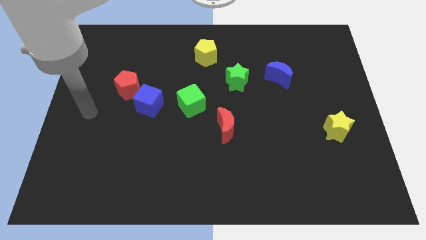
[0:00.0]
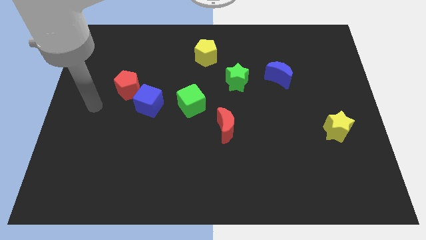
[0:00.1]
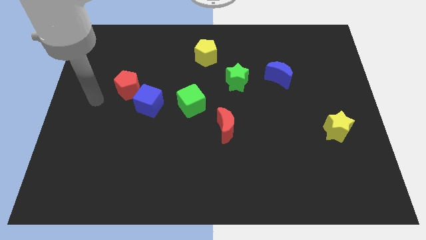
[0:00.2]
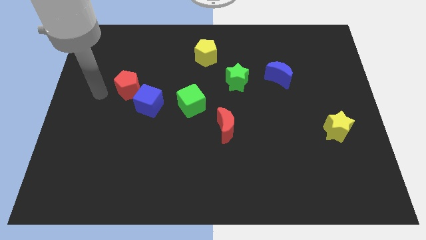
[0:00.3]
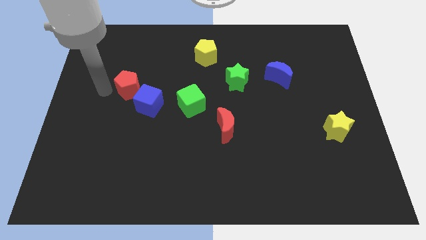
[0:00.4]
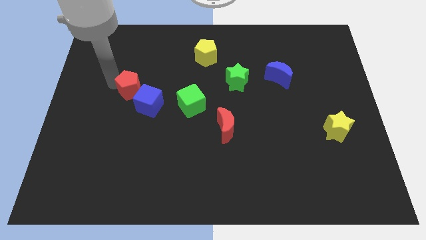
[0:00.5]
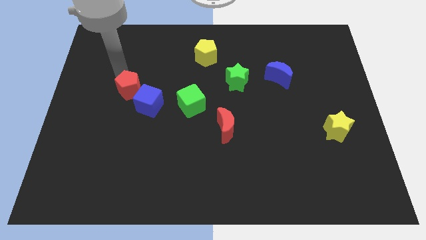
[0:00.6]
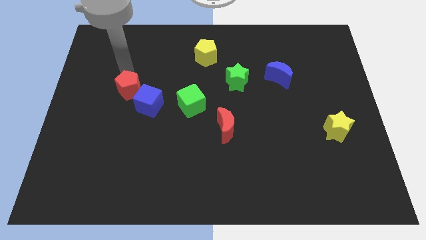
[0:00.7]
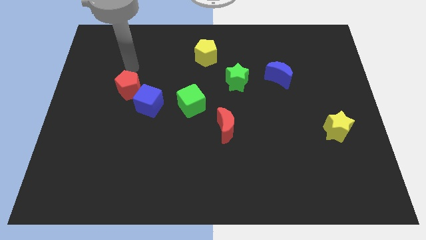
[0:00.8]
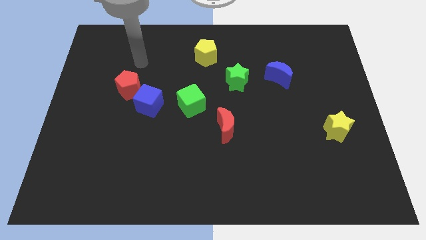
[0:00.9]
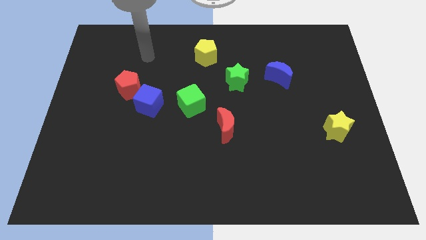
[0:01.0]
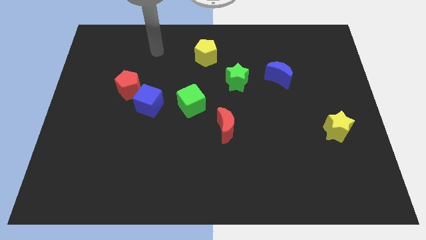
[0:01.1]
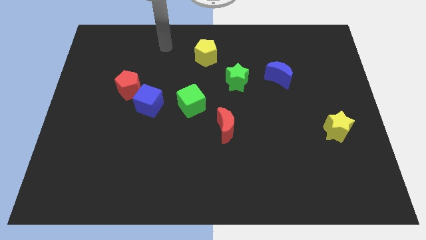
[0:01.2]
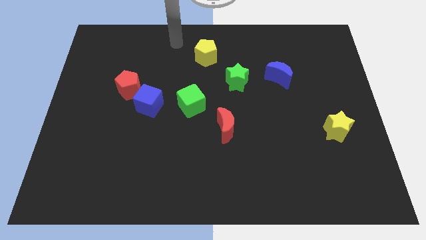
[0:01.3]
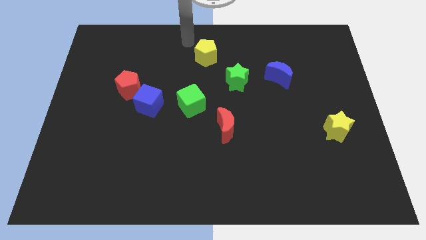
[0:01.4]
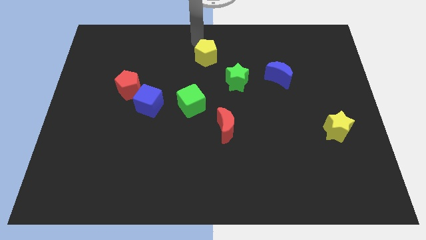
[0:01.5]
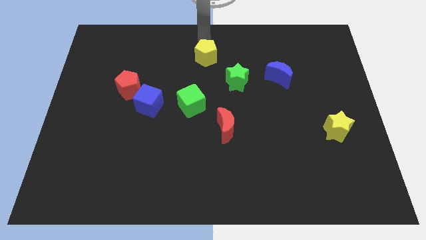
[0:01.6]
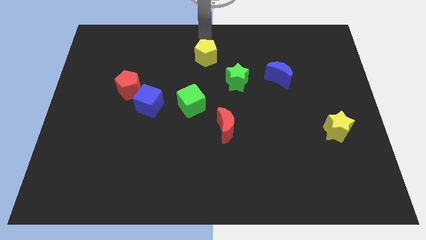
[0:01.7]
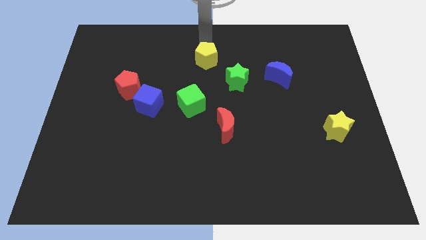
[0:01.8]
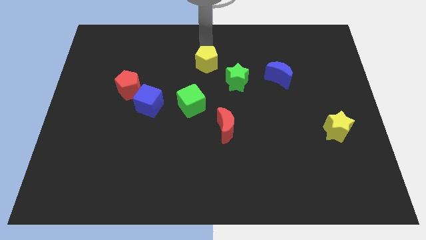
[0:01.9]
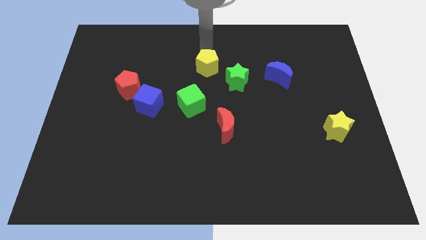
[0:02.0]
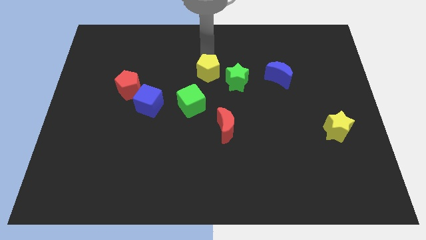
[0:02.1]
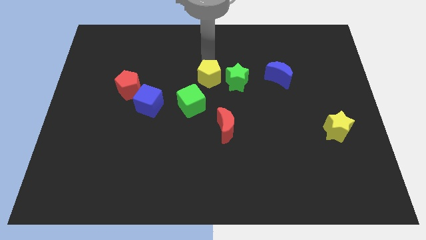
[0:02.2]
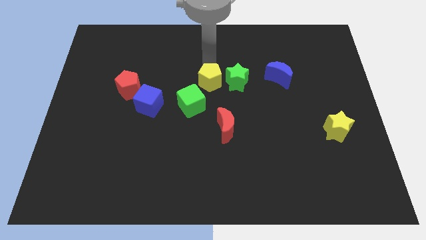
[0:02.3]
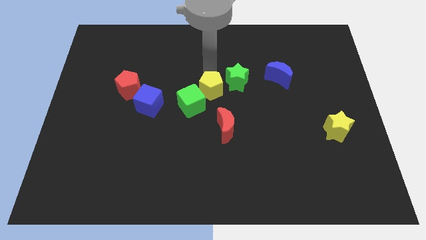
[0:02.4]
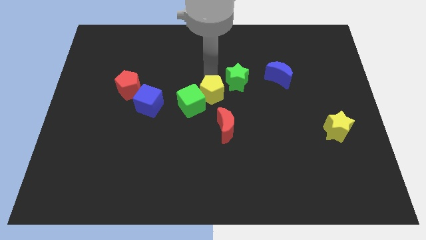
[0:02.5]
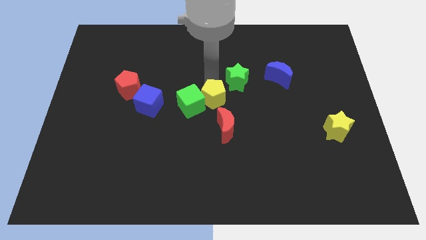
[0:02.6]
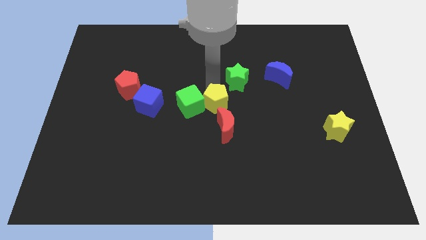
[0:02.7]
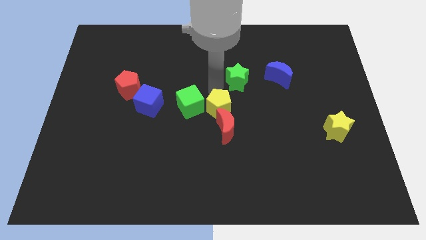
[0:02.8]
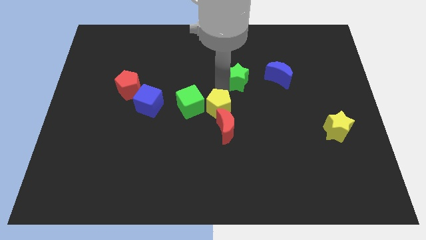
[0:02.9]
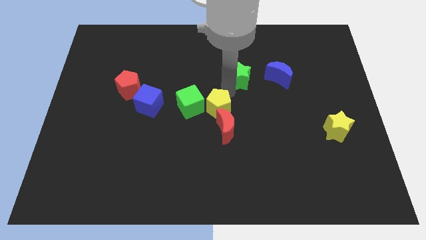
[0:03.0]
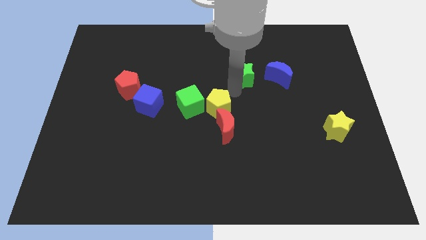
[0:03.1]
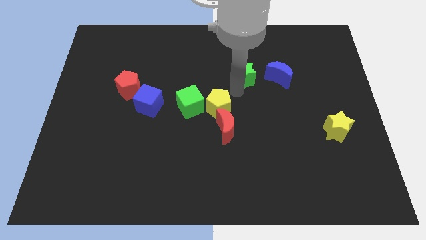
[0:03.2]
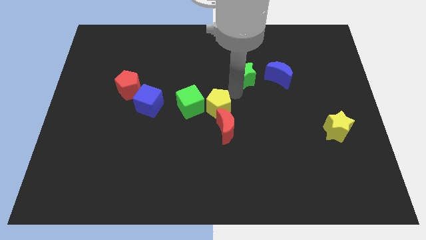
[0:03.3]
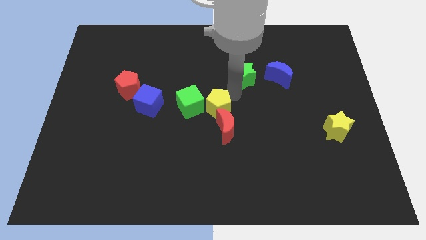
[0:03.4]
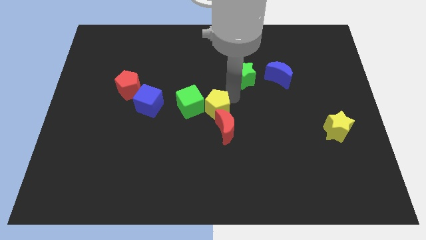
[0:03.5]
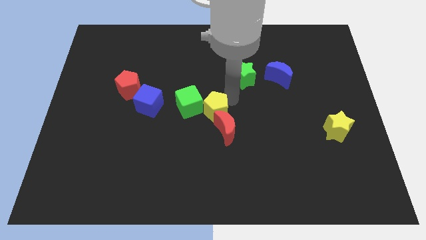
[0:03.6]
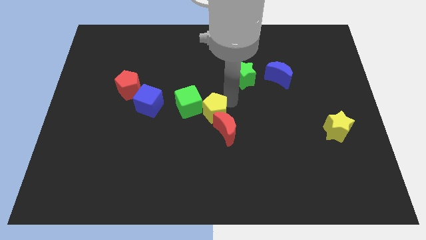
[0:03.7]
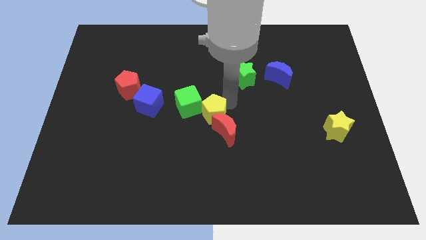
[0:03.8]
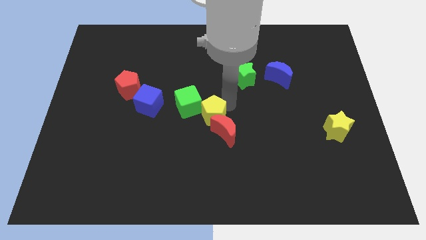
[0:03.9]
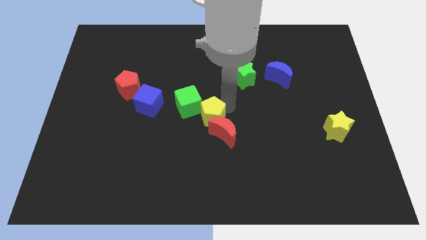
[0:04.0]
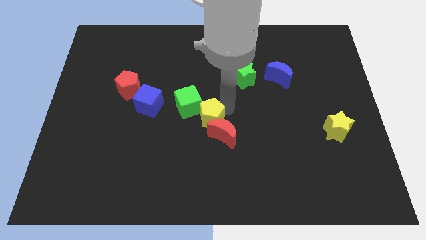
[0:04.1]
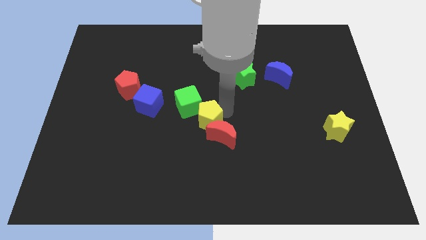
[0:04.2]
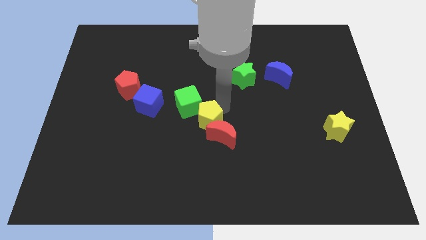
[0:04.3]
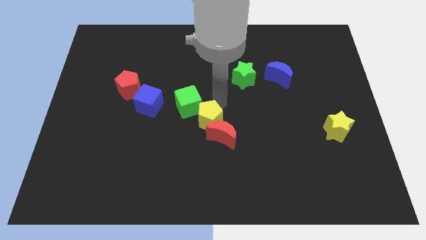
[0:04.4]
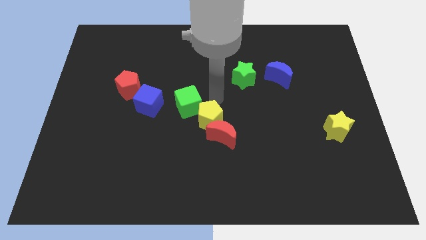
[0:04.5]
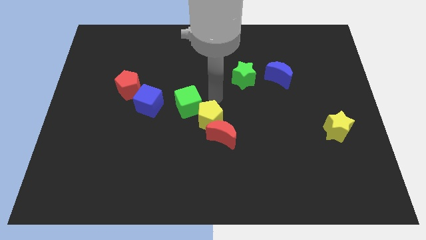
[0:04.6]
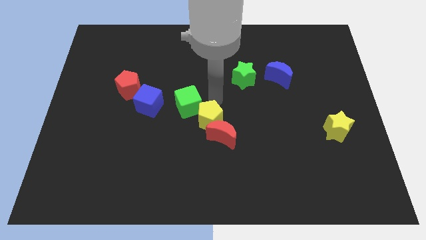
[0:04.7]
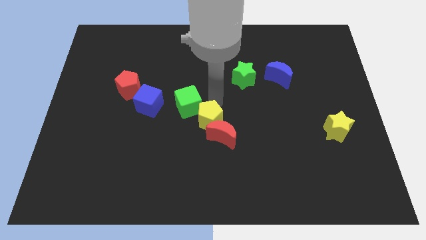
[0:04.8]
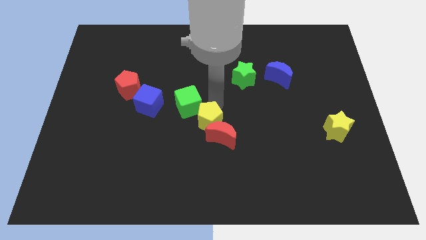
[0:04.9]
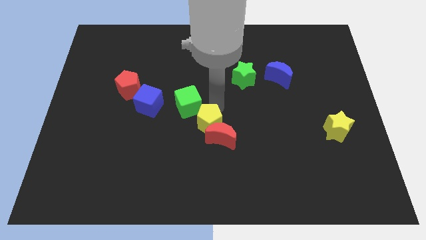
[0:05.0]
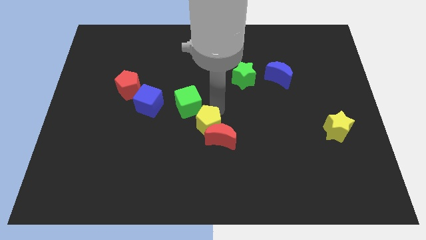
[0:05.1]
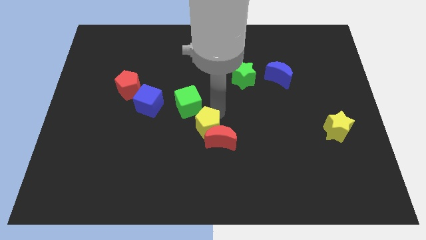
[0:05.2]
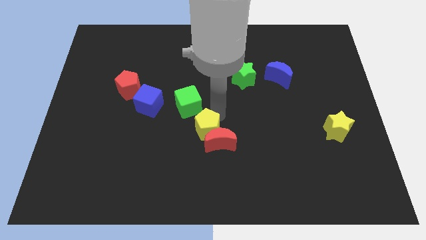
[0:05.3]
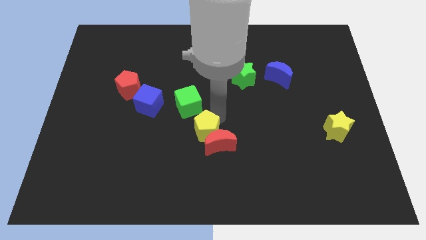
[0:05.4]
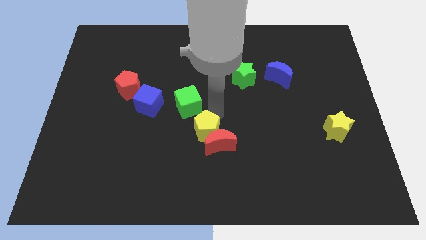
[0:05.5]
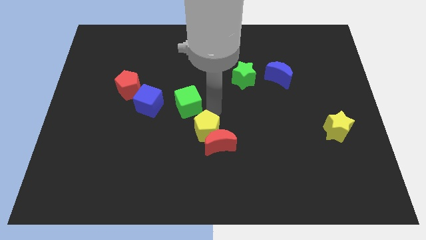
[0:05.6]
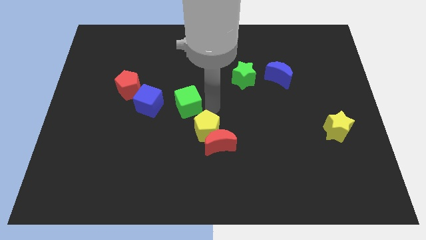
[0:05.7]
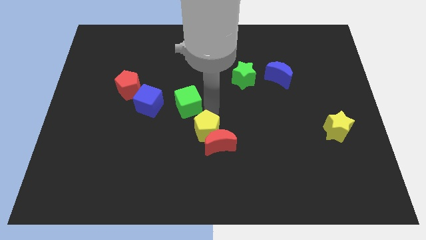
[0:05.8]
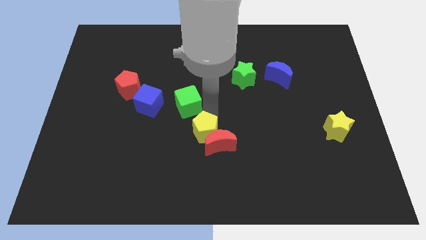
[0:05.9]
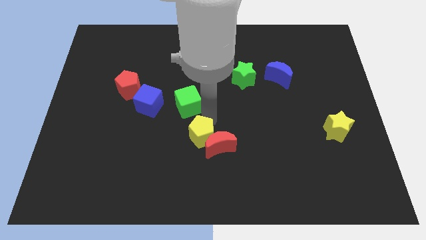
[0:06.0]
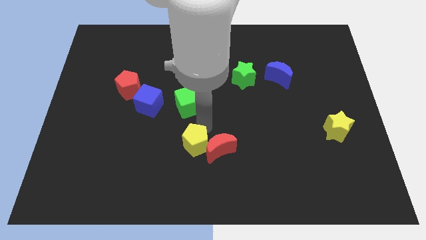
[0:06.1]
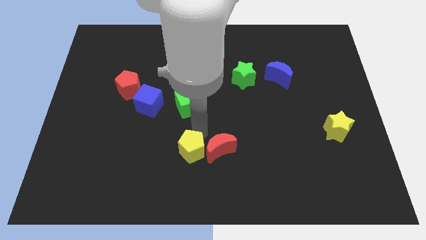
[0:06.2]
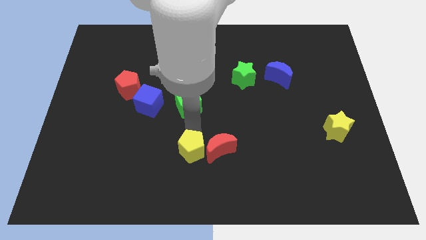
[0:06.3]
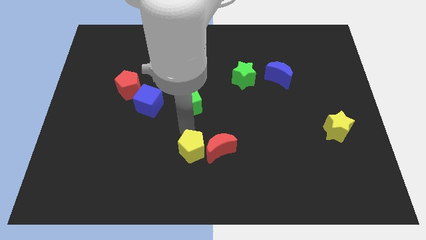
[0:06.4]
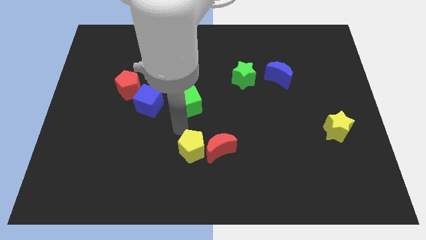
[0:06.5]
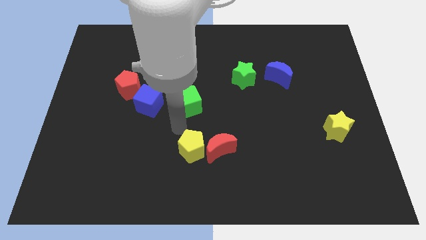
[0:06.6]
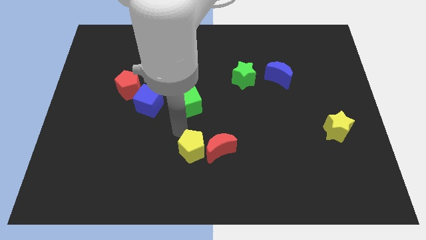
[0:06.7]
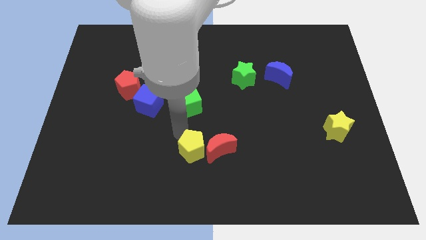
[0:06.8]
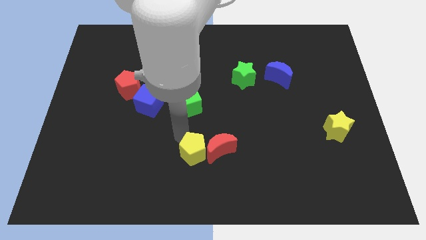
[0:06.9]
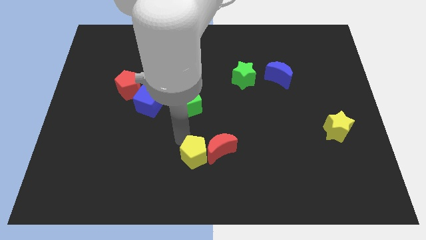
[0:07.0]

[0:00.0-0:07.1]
slide the yellow pentagon to the bottom side
